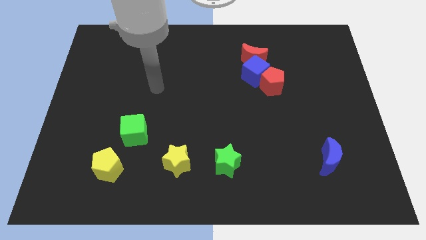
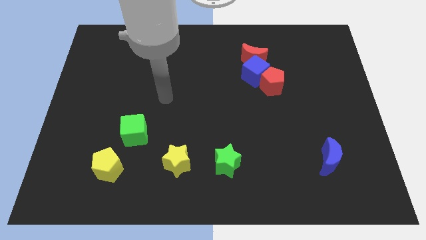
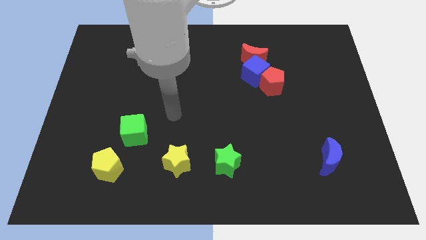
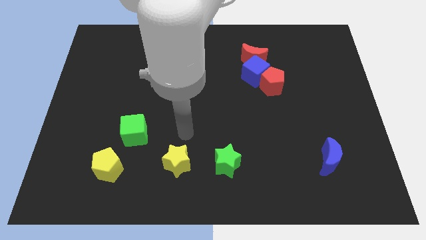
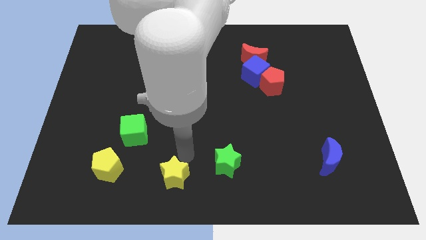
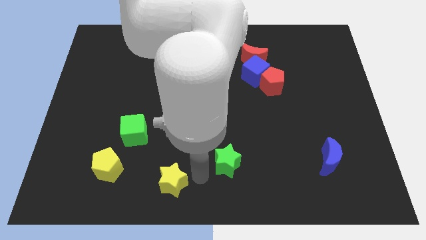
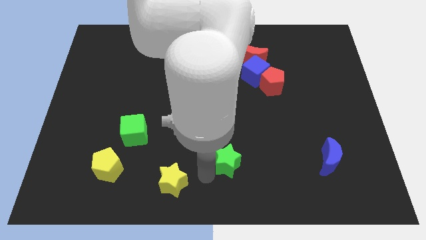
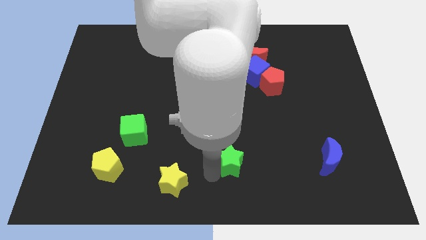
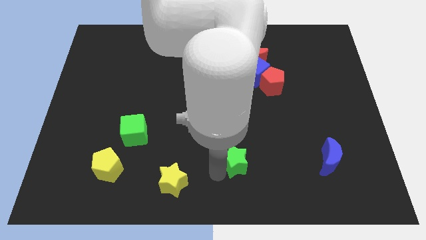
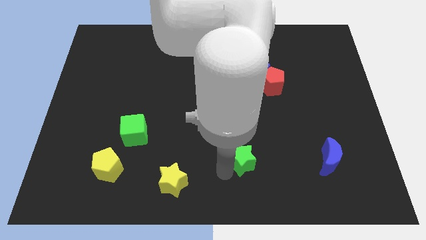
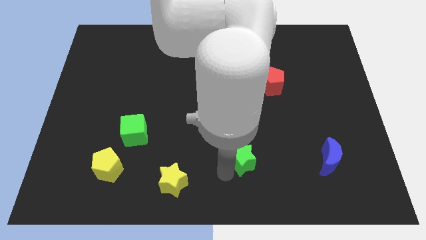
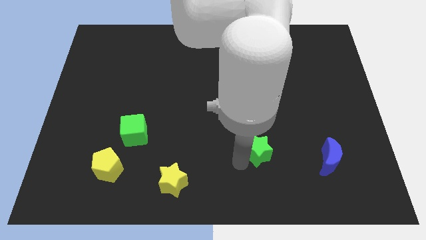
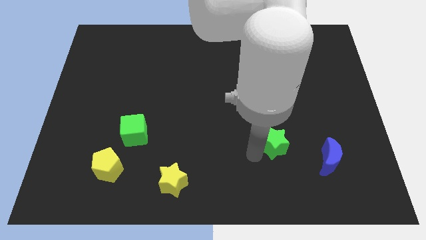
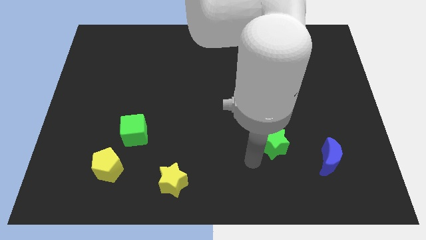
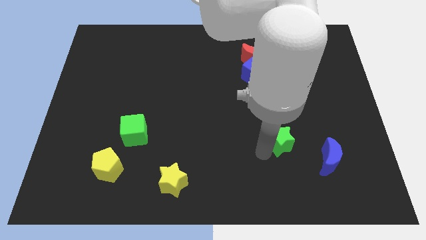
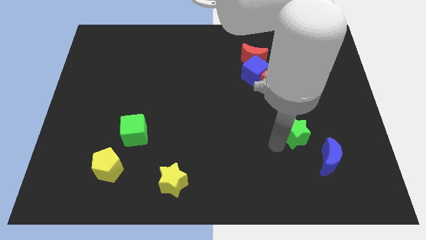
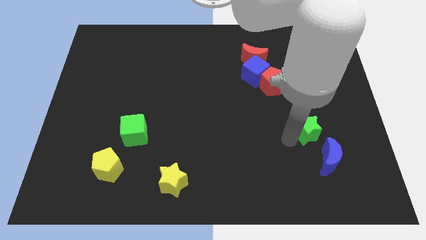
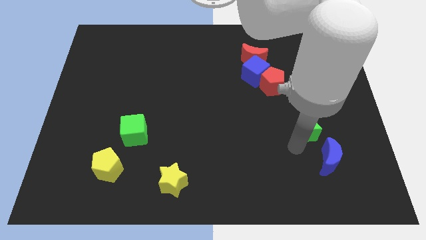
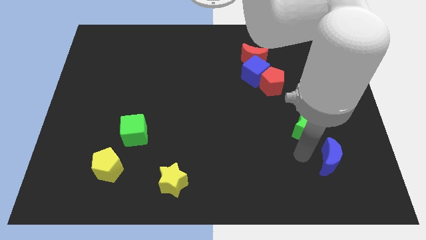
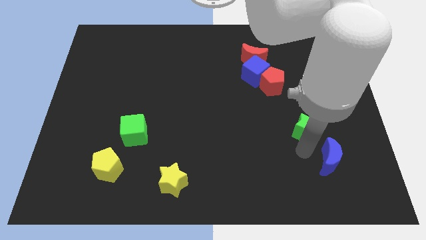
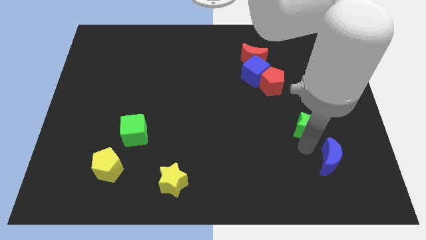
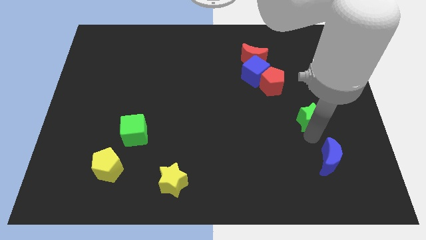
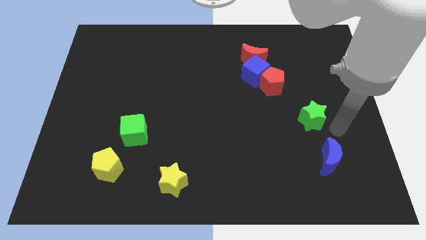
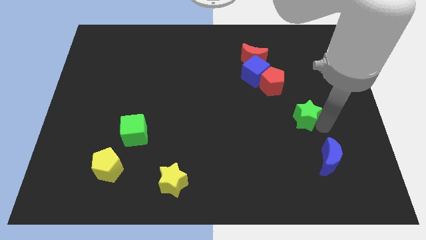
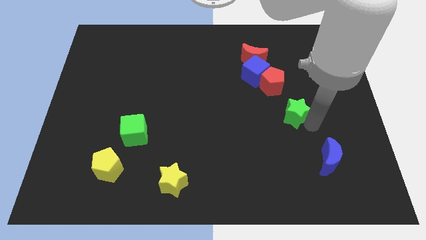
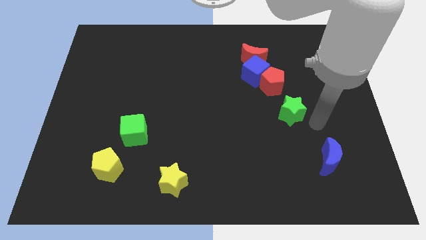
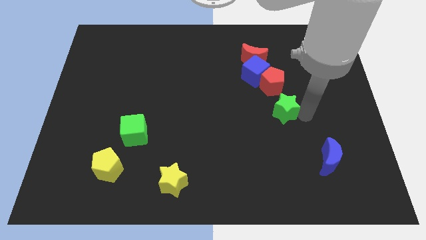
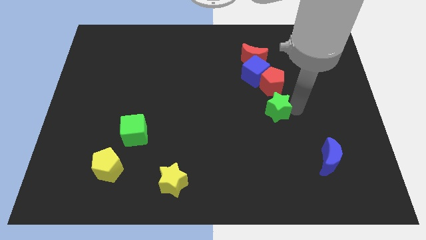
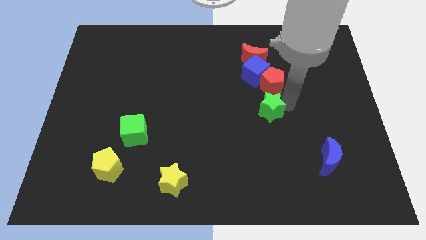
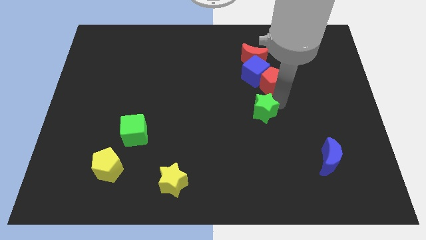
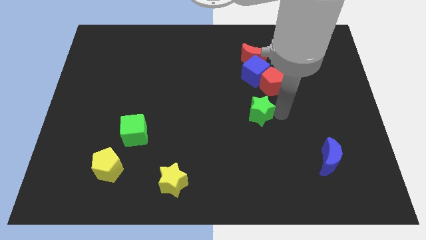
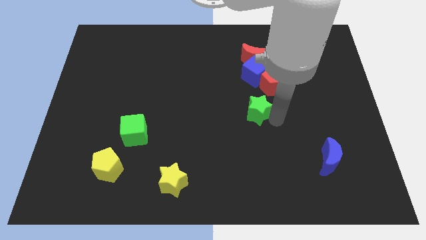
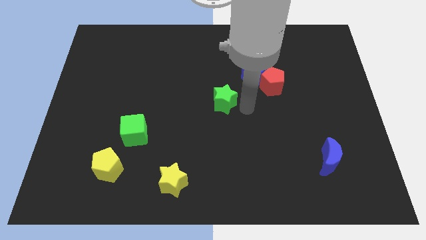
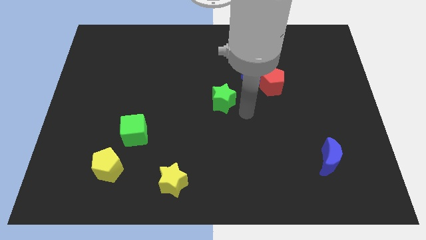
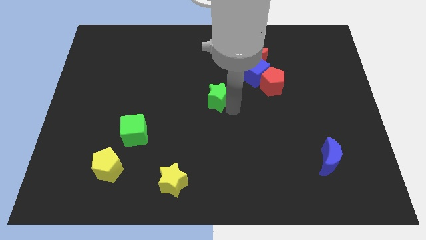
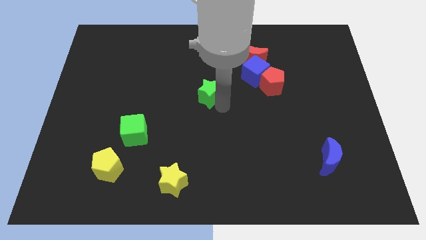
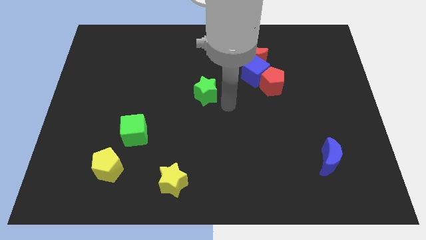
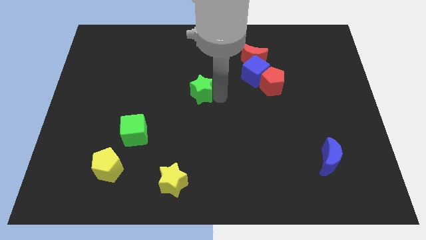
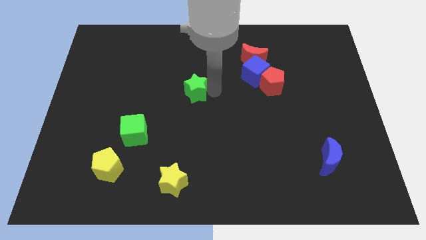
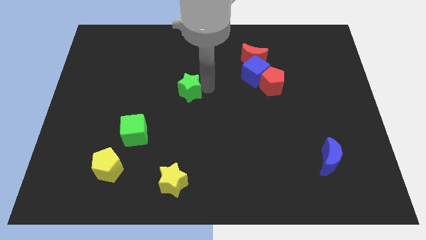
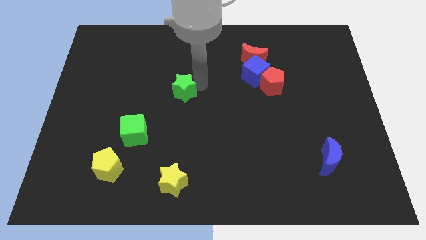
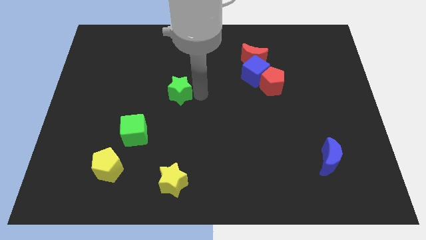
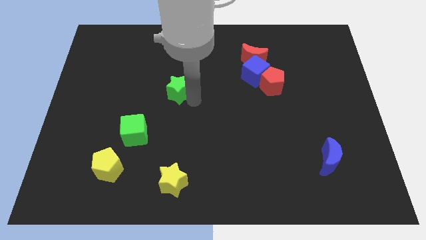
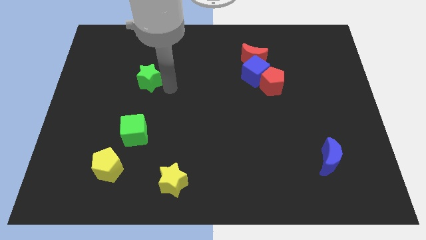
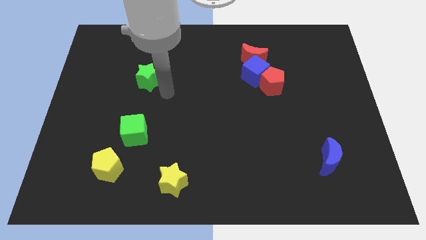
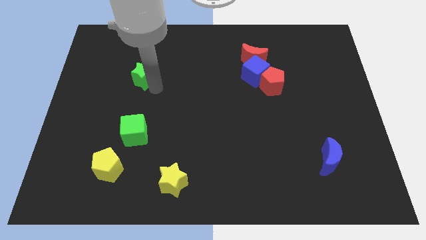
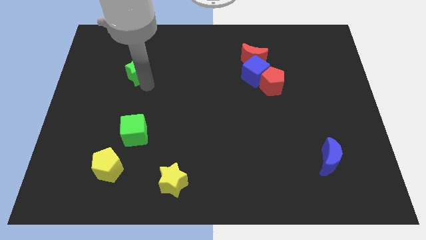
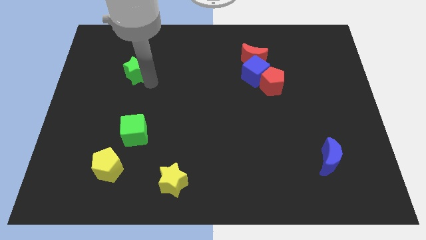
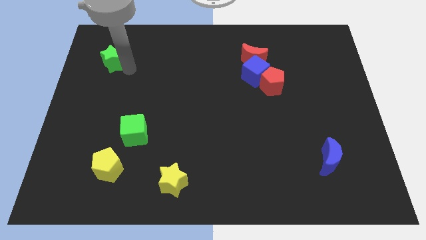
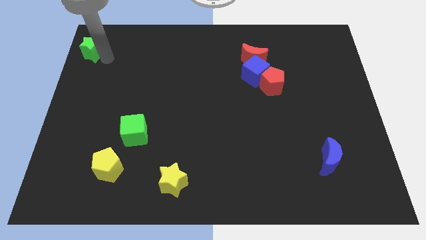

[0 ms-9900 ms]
push the green star to the top left corner

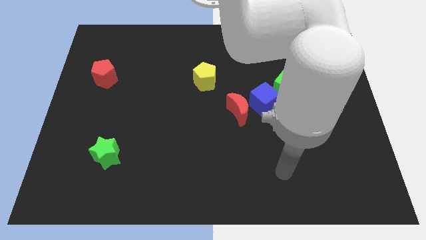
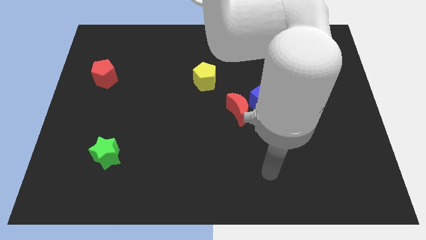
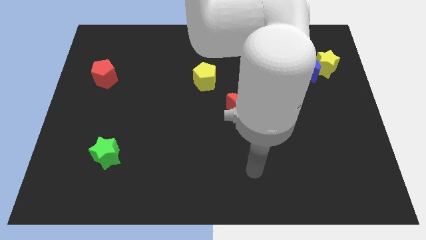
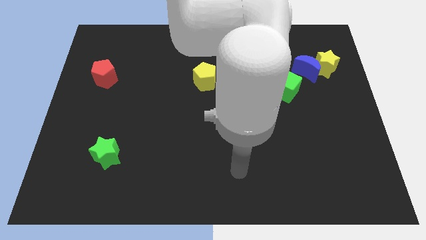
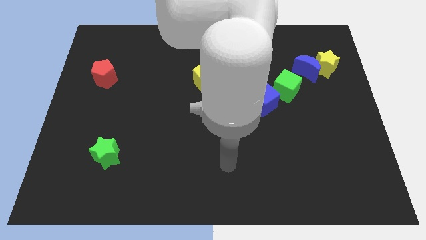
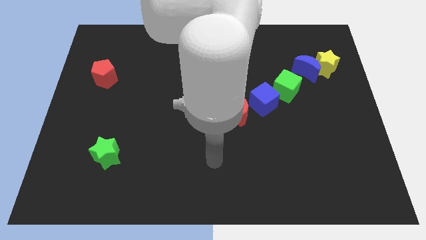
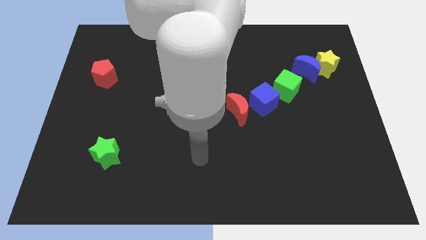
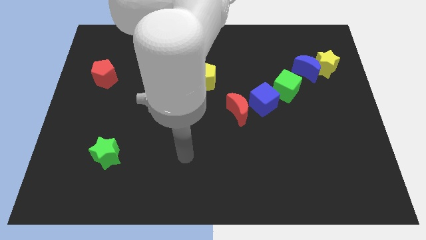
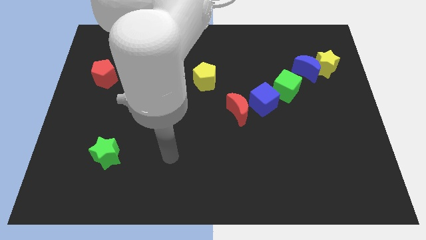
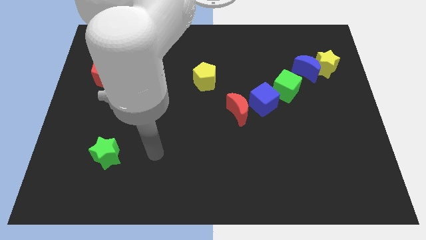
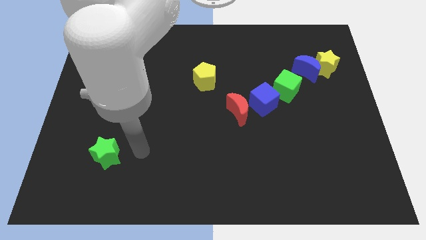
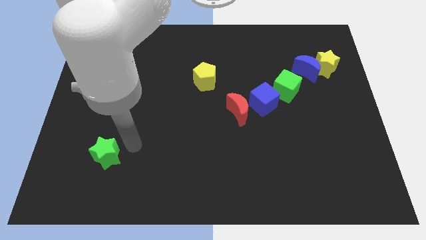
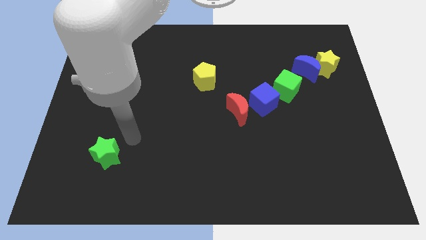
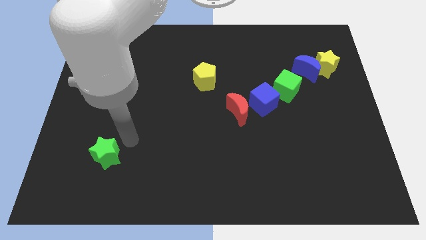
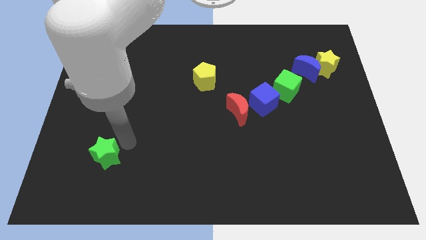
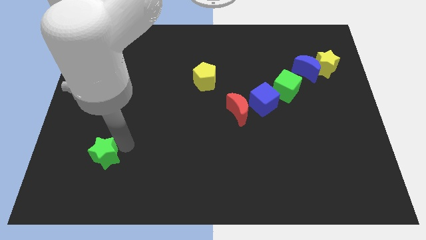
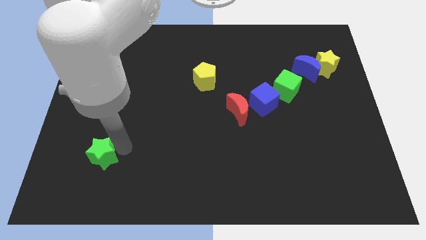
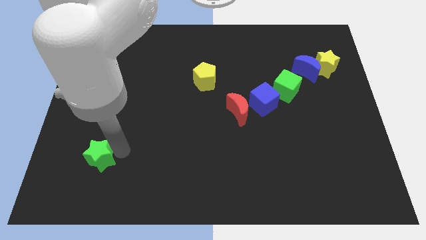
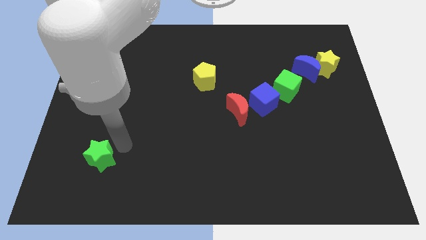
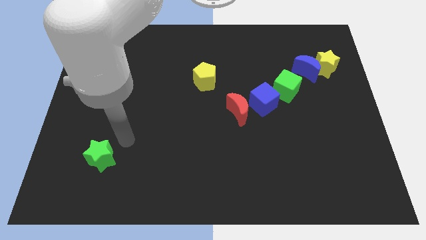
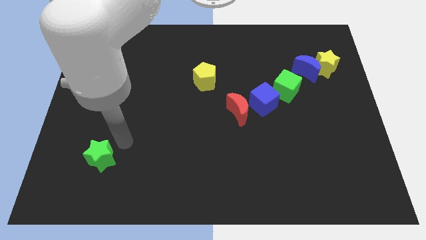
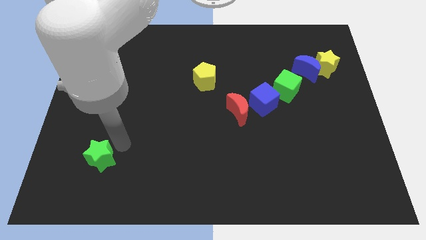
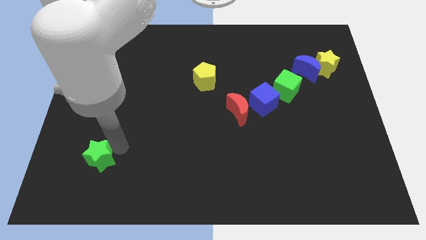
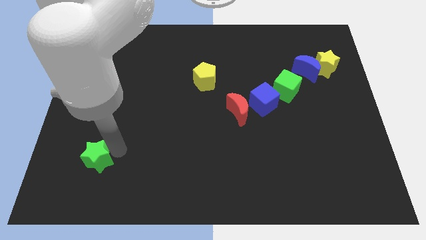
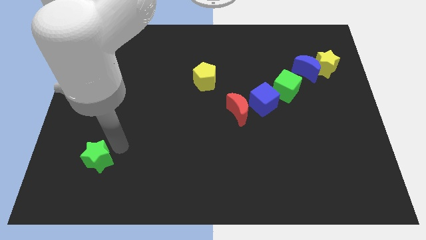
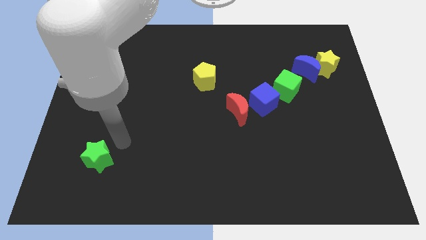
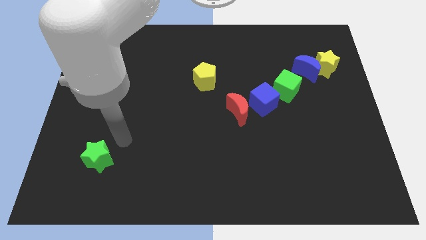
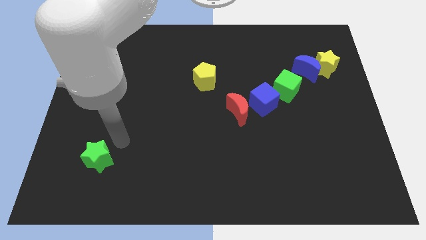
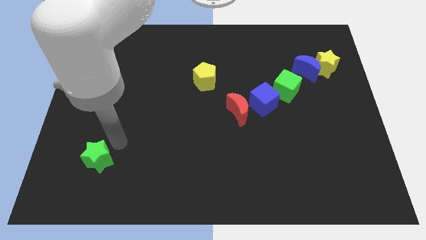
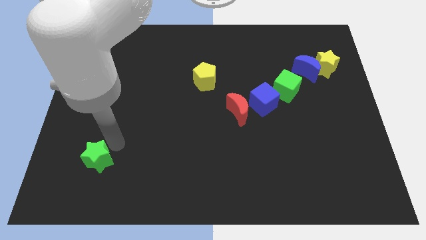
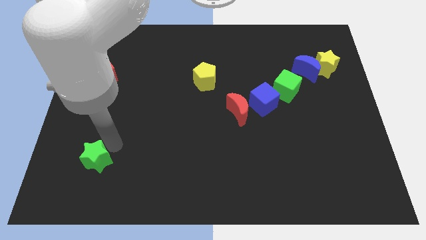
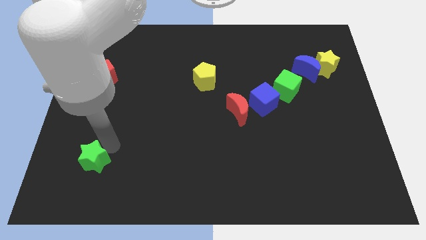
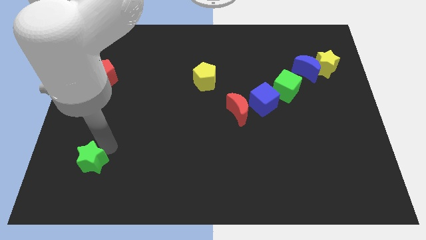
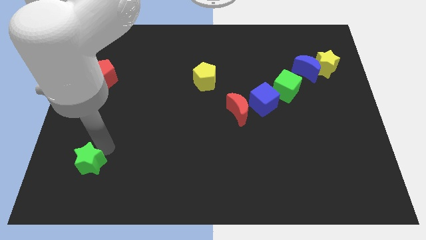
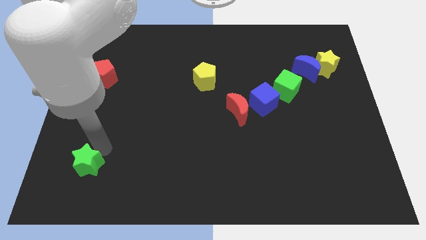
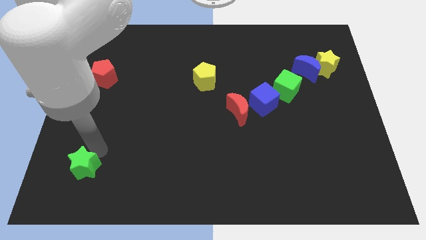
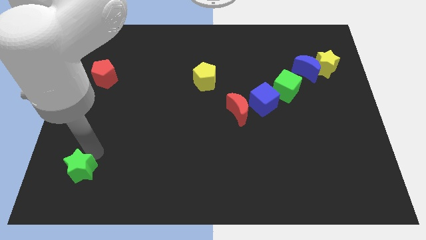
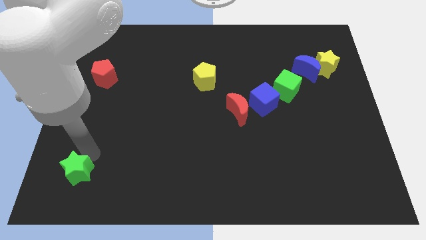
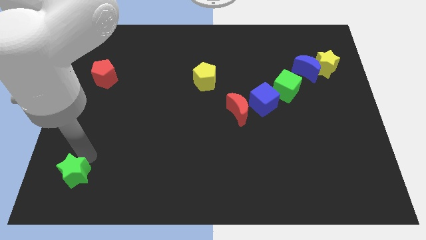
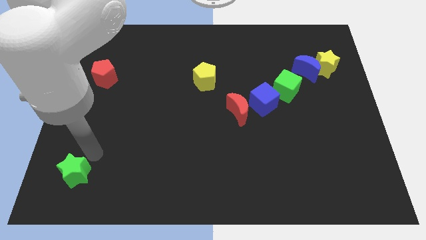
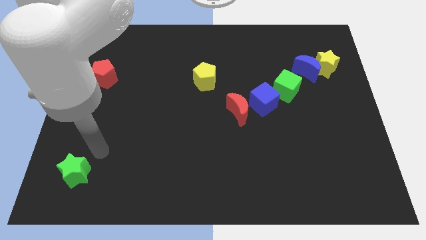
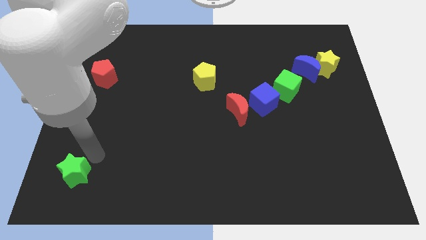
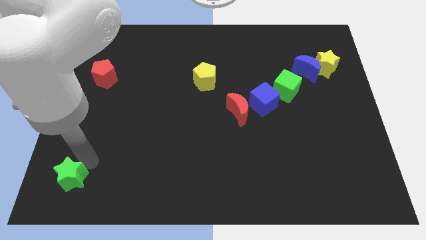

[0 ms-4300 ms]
put the green star to the bottom left corner
